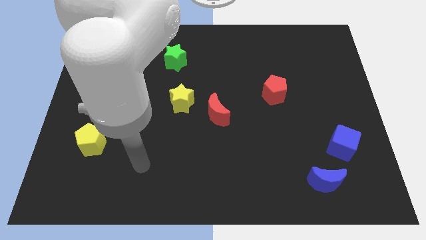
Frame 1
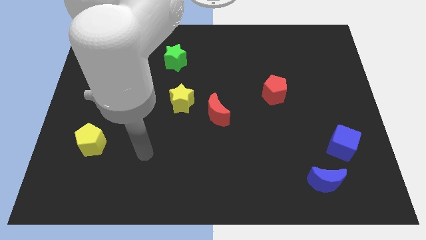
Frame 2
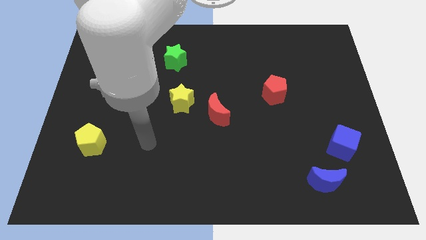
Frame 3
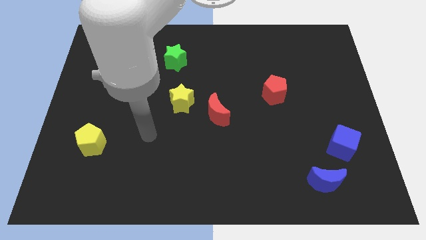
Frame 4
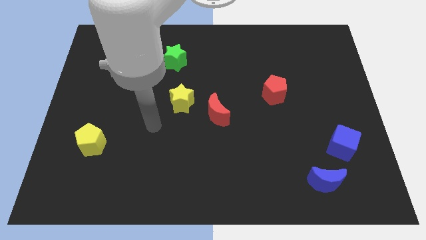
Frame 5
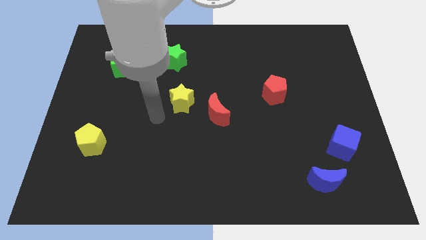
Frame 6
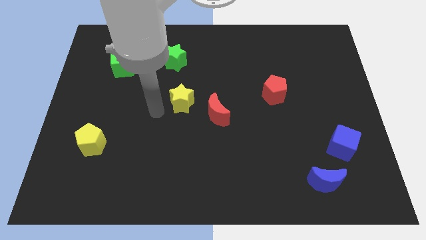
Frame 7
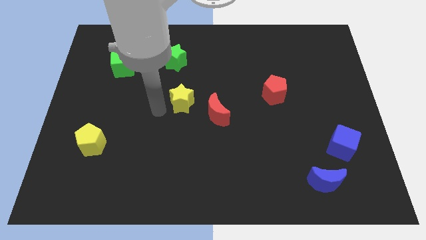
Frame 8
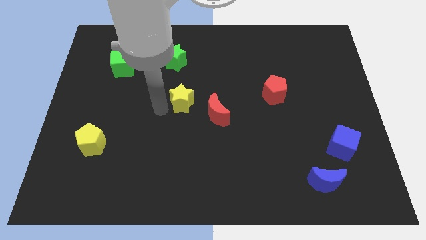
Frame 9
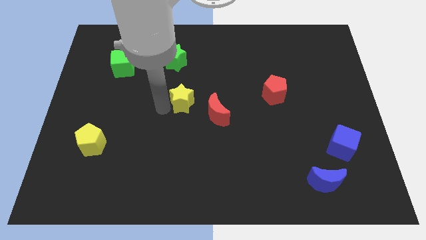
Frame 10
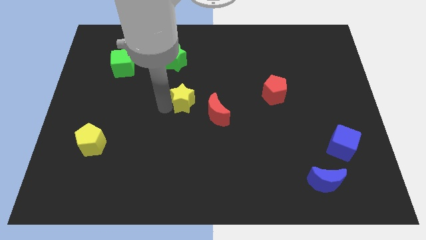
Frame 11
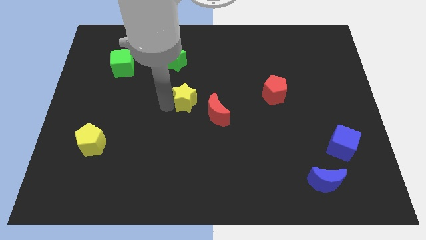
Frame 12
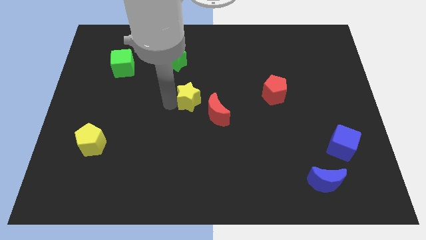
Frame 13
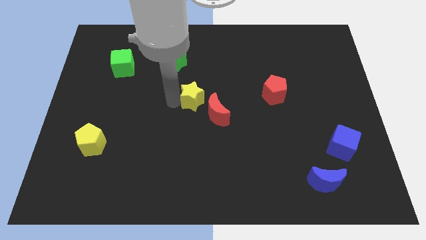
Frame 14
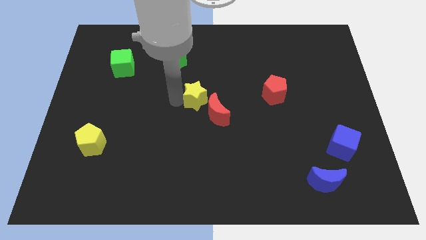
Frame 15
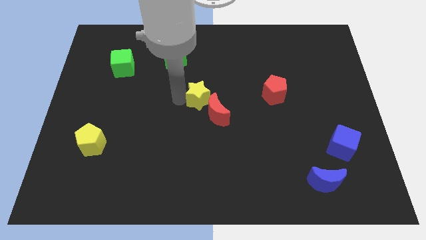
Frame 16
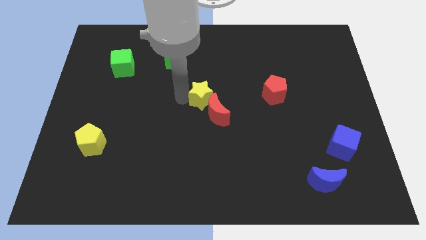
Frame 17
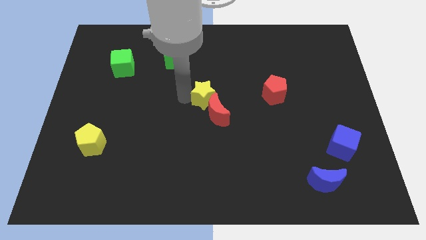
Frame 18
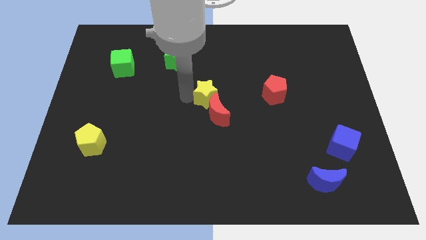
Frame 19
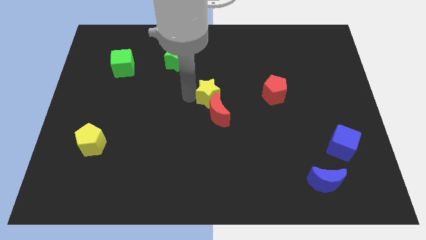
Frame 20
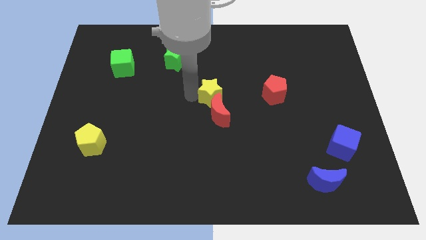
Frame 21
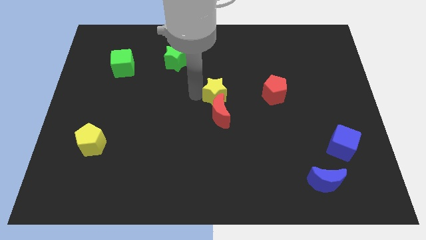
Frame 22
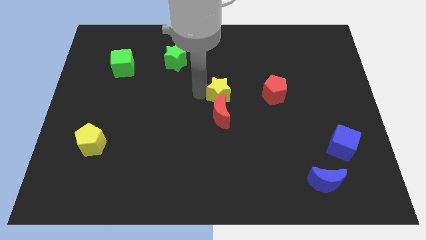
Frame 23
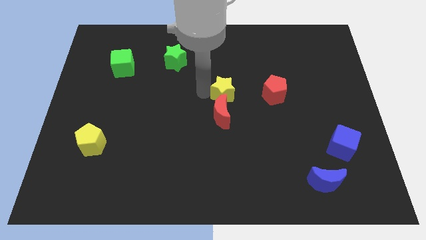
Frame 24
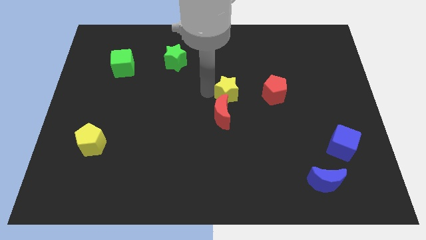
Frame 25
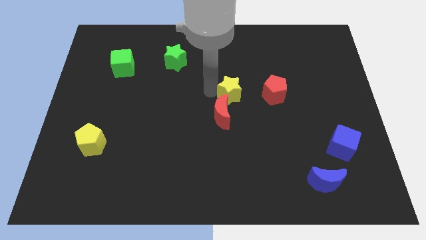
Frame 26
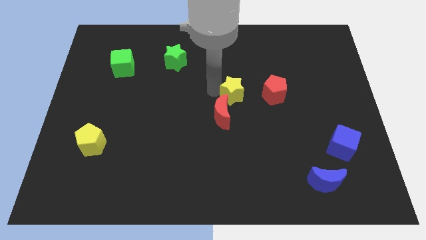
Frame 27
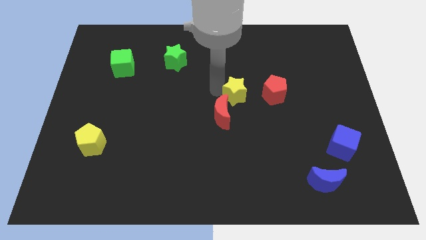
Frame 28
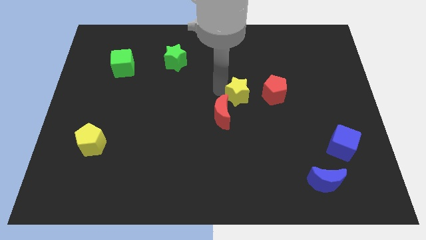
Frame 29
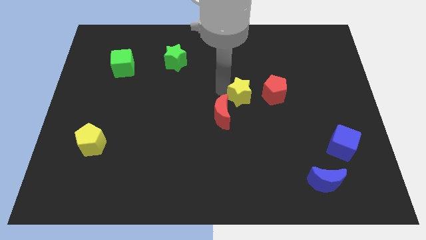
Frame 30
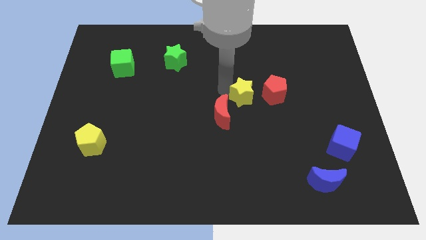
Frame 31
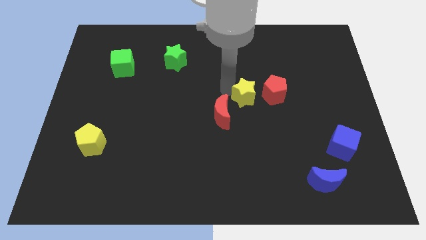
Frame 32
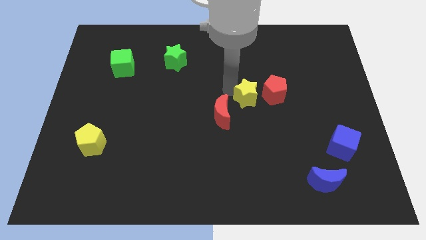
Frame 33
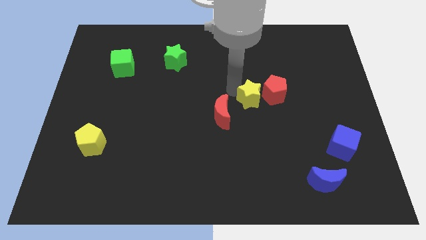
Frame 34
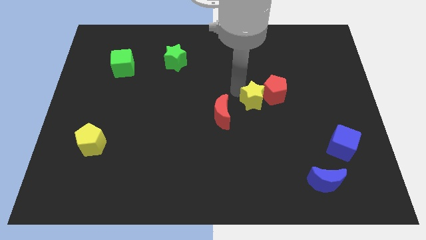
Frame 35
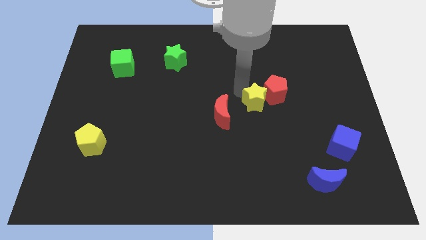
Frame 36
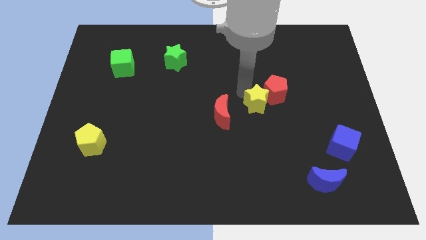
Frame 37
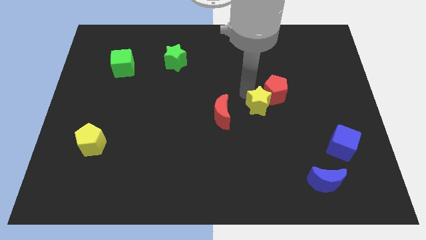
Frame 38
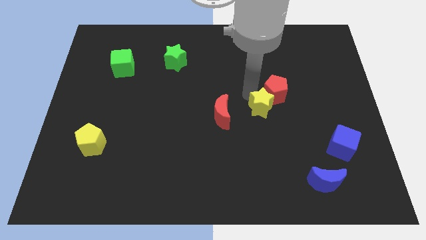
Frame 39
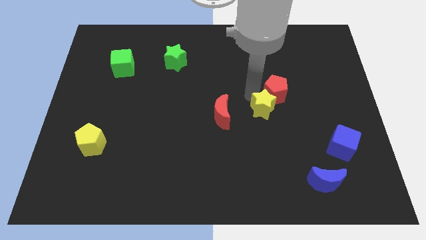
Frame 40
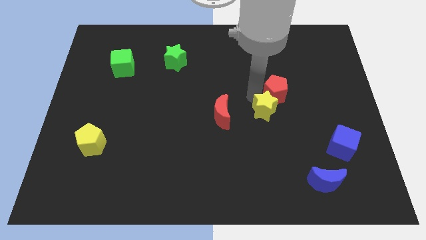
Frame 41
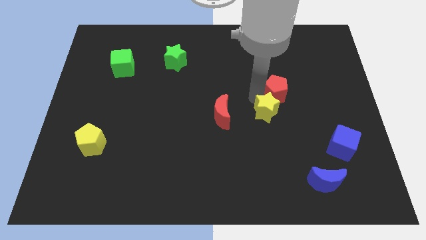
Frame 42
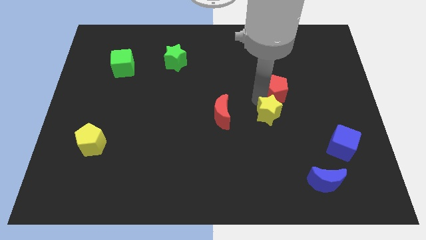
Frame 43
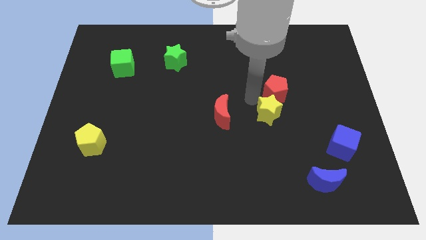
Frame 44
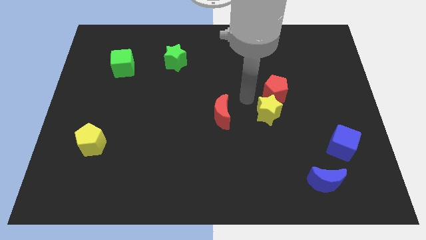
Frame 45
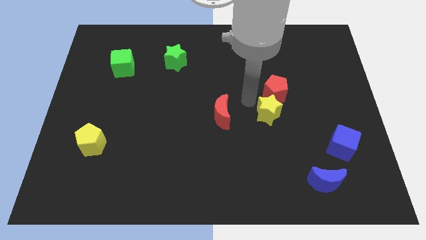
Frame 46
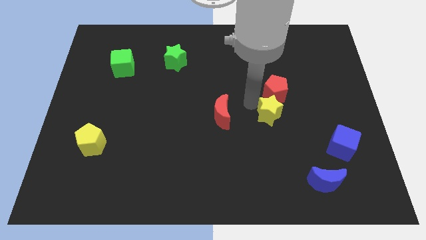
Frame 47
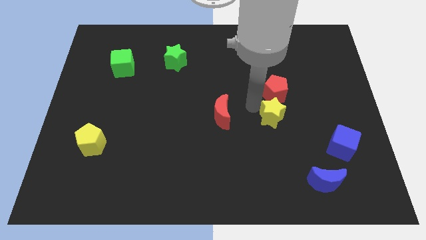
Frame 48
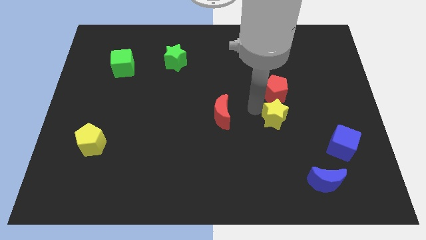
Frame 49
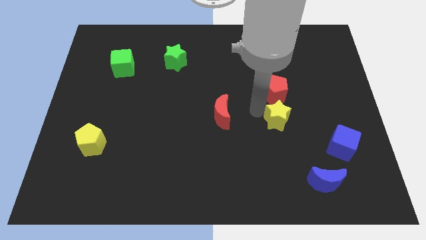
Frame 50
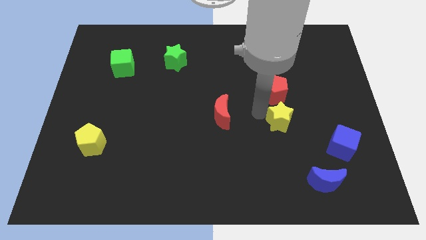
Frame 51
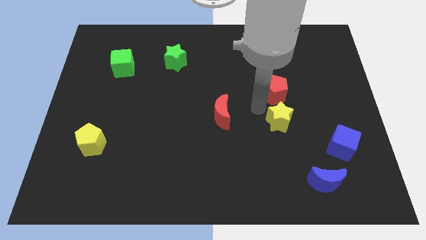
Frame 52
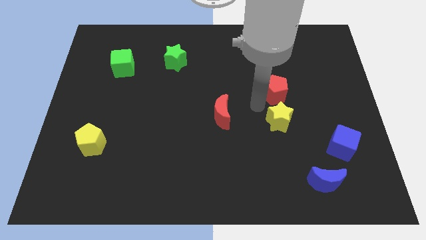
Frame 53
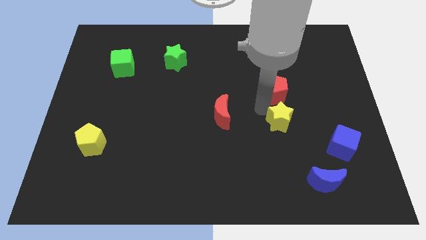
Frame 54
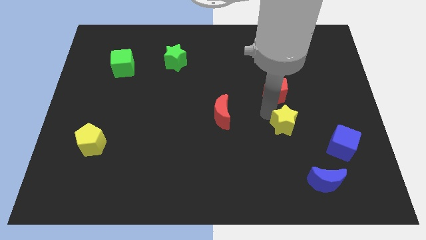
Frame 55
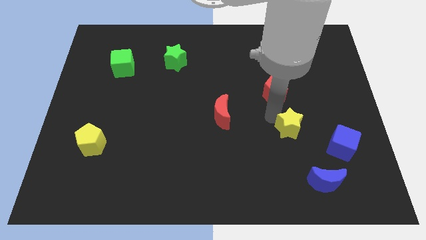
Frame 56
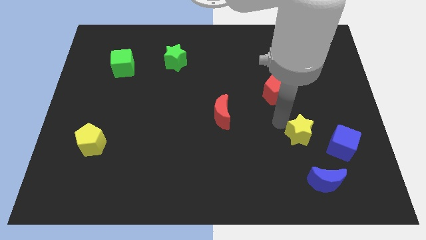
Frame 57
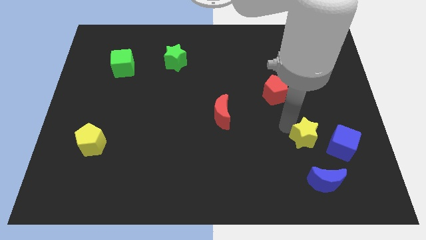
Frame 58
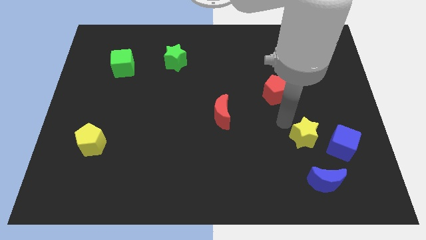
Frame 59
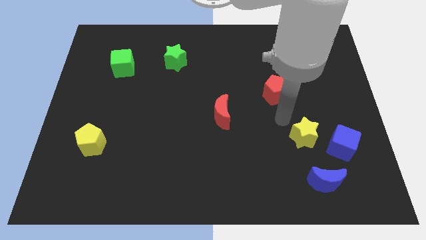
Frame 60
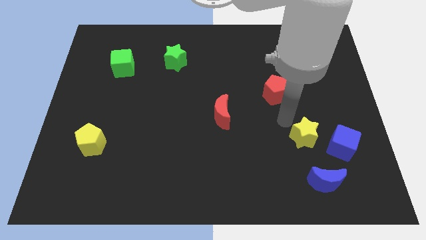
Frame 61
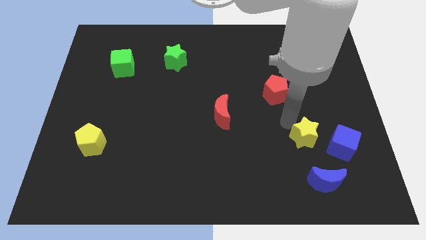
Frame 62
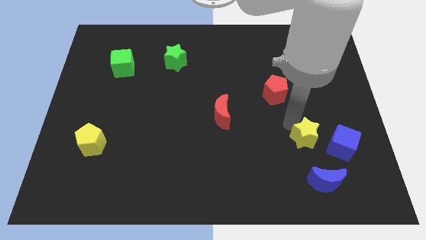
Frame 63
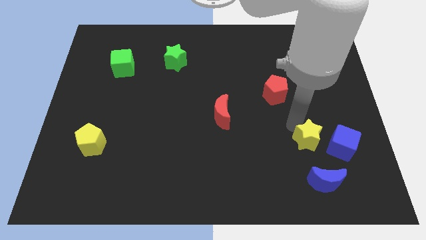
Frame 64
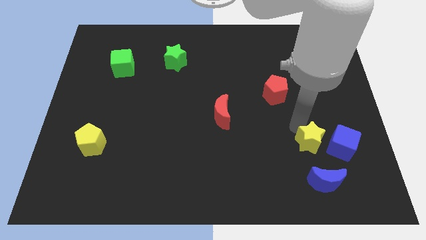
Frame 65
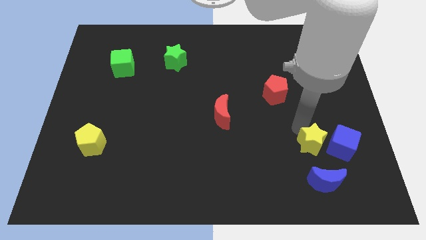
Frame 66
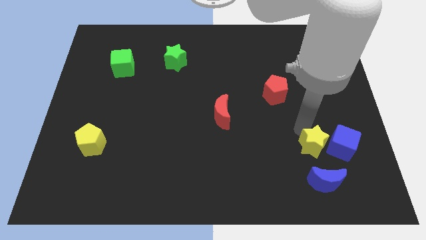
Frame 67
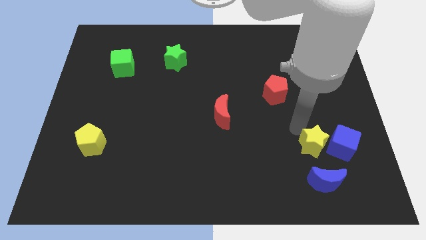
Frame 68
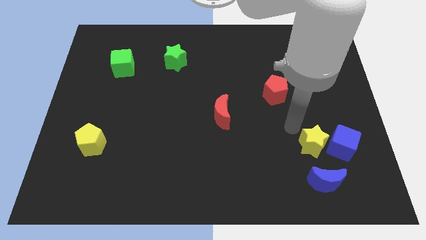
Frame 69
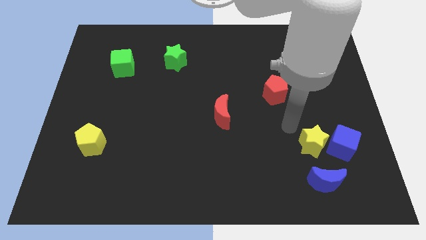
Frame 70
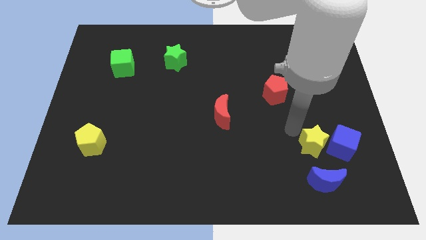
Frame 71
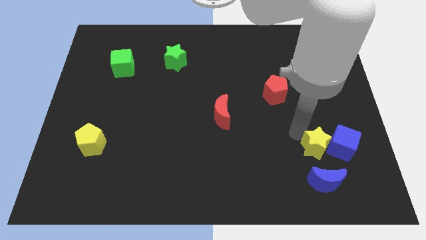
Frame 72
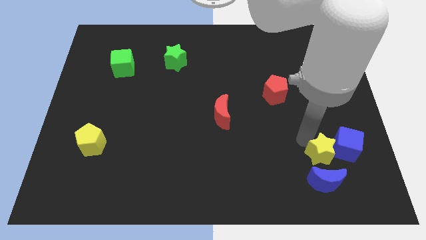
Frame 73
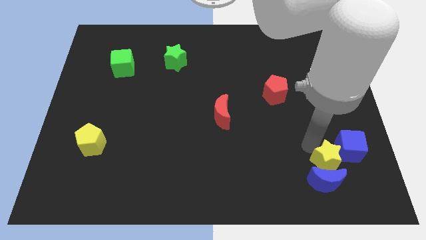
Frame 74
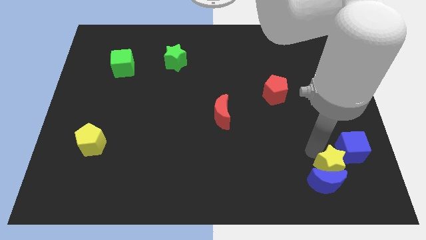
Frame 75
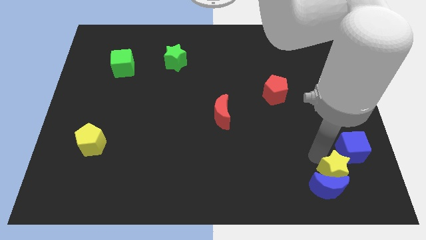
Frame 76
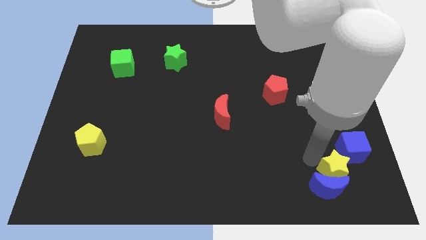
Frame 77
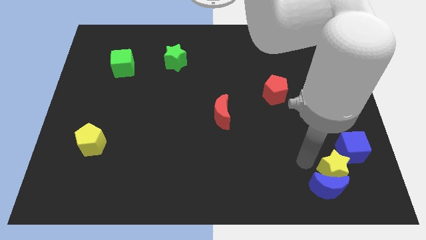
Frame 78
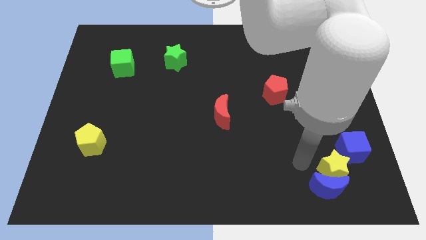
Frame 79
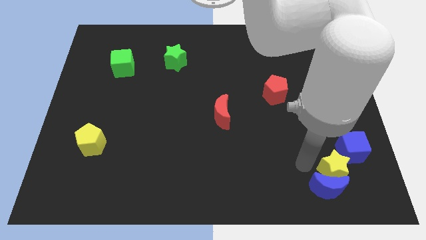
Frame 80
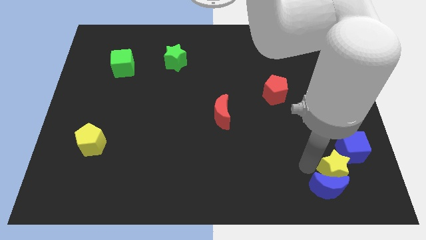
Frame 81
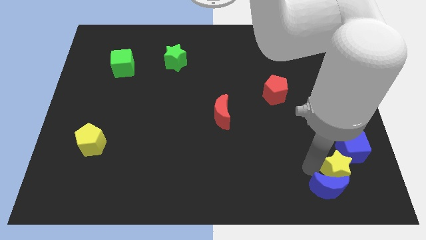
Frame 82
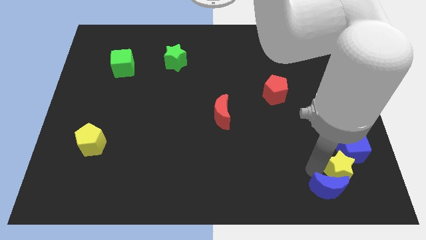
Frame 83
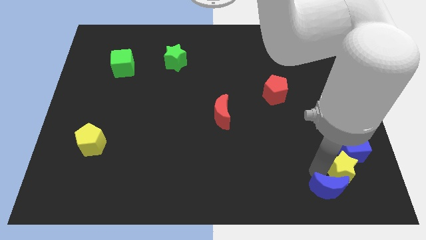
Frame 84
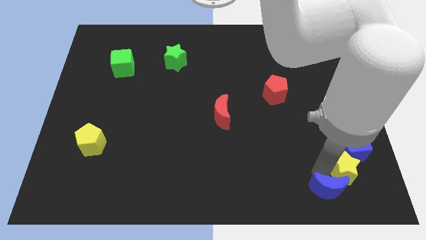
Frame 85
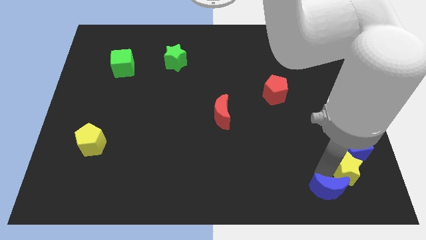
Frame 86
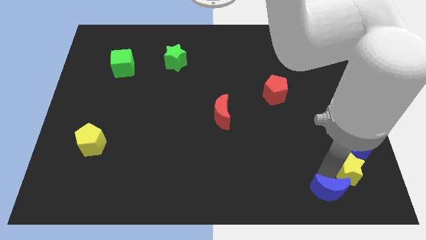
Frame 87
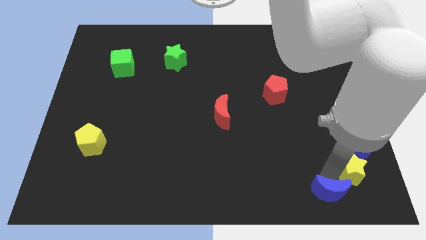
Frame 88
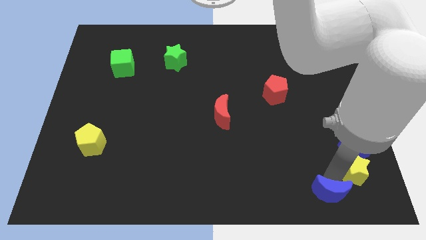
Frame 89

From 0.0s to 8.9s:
move the yellow star to the bottom right corner
